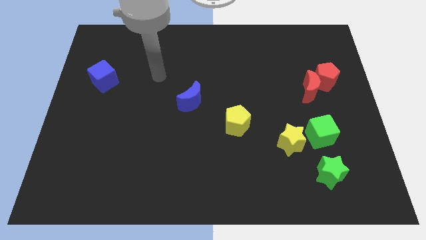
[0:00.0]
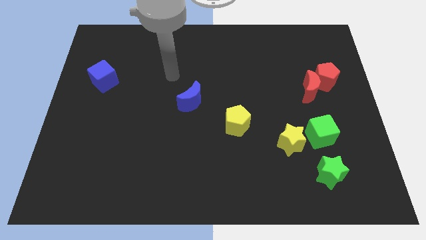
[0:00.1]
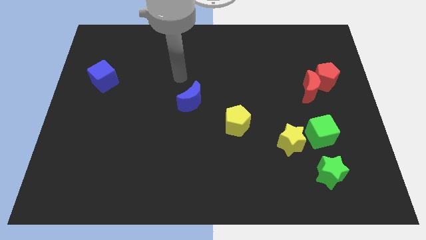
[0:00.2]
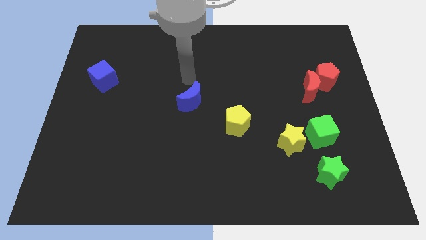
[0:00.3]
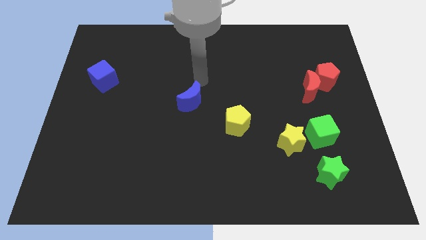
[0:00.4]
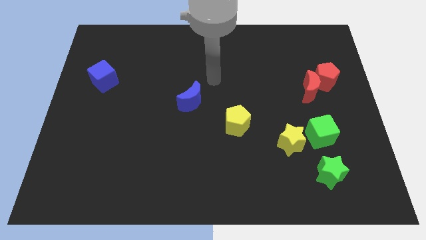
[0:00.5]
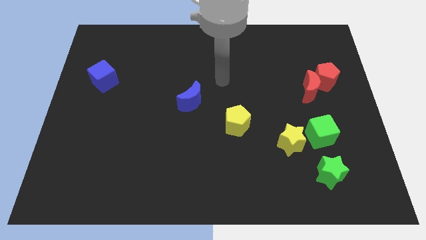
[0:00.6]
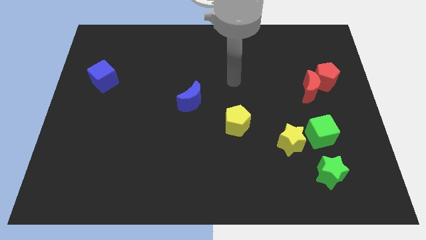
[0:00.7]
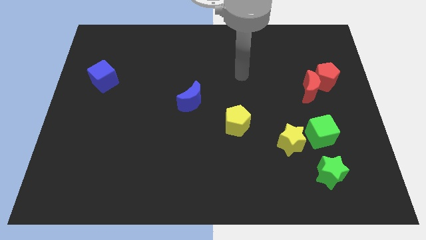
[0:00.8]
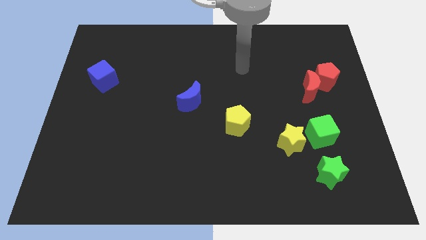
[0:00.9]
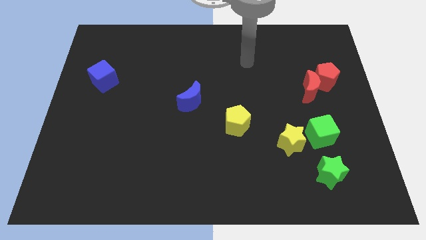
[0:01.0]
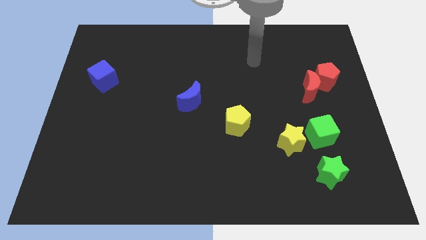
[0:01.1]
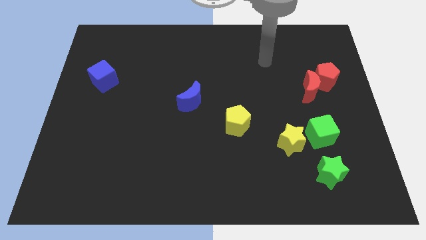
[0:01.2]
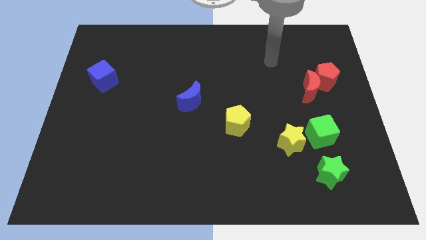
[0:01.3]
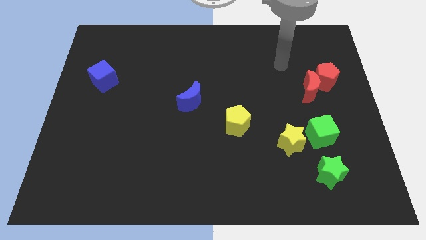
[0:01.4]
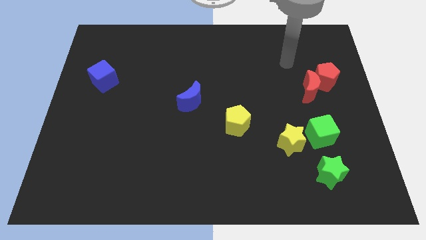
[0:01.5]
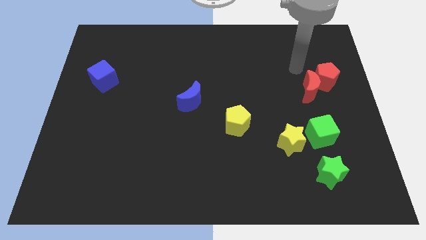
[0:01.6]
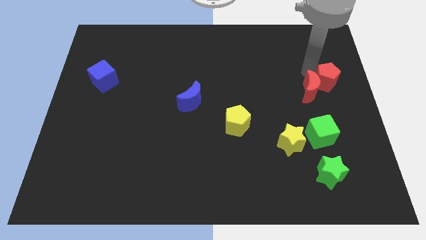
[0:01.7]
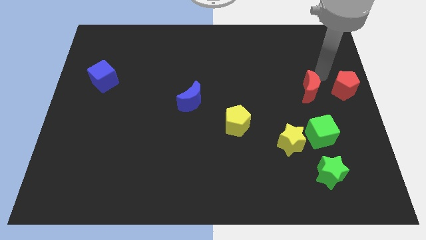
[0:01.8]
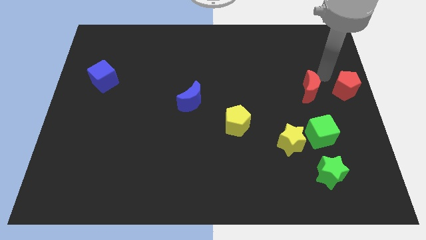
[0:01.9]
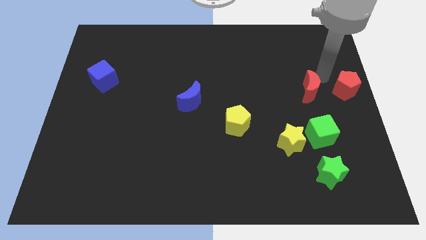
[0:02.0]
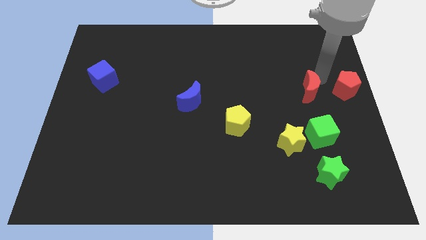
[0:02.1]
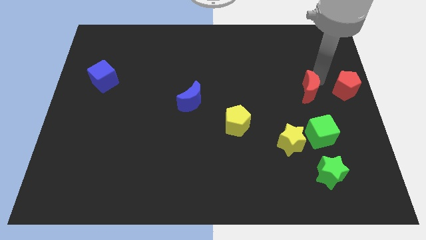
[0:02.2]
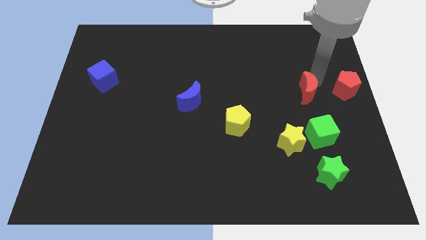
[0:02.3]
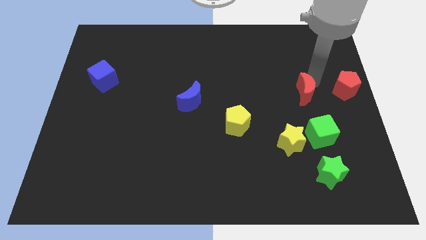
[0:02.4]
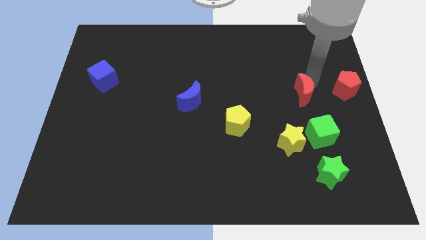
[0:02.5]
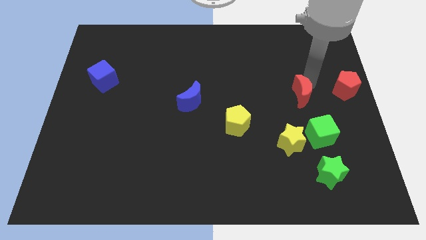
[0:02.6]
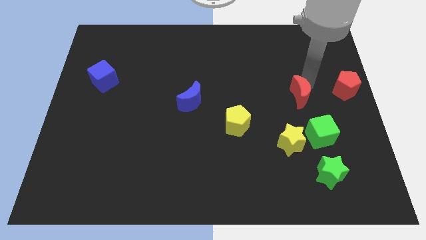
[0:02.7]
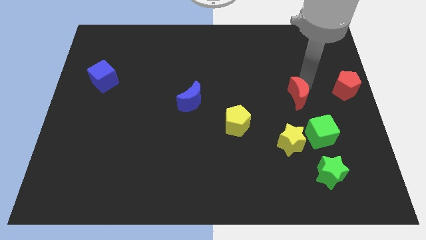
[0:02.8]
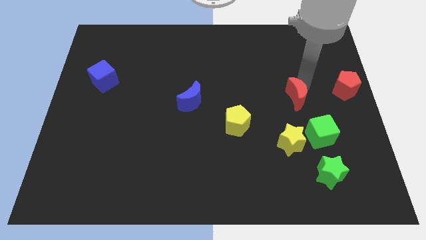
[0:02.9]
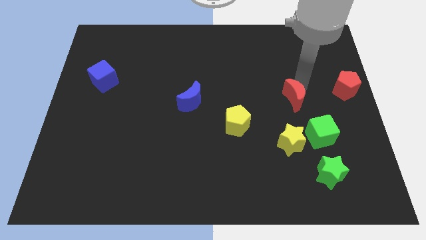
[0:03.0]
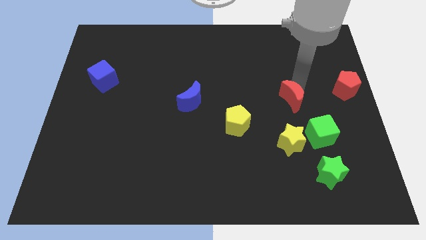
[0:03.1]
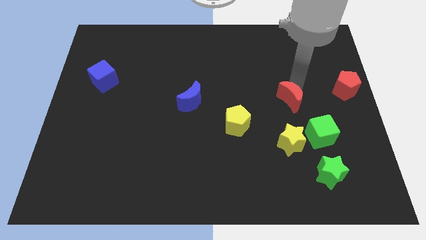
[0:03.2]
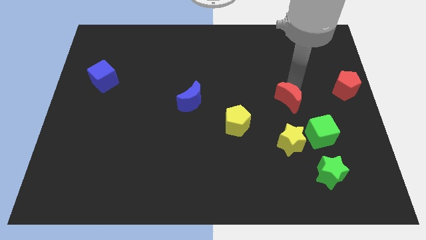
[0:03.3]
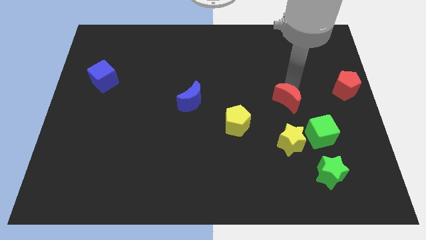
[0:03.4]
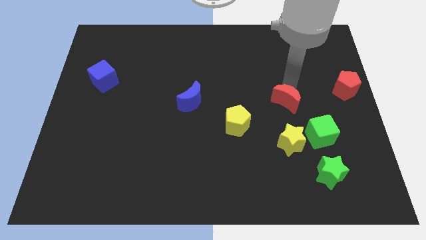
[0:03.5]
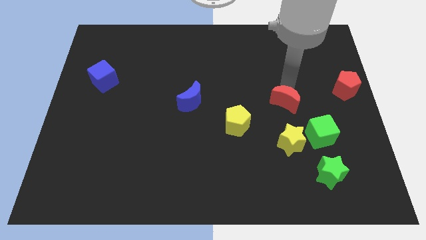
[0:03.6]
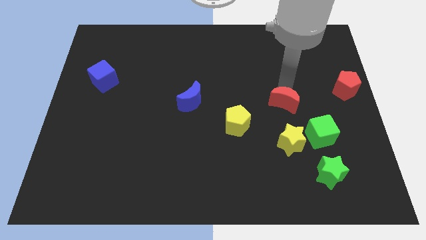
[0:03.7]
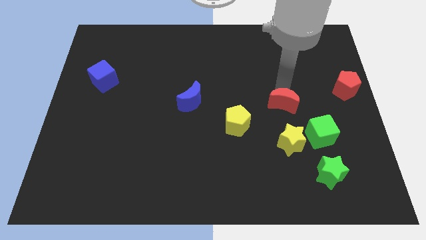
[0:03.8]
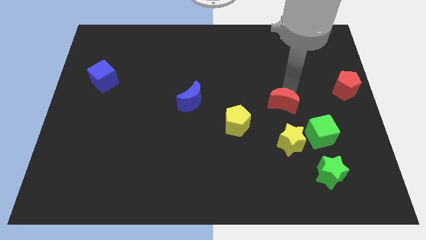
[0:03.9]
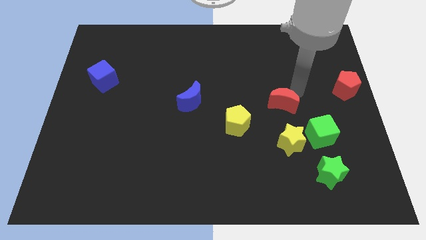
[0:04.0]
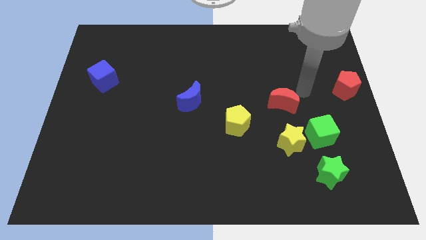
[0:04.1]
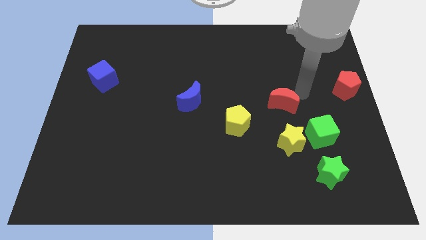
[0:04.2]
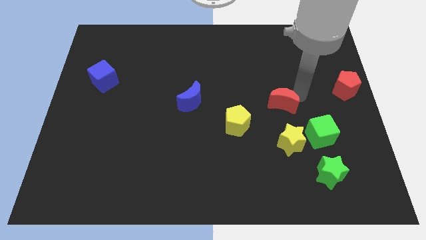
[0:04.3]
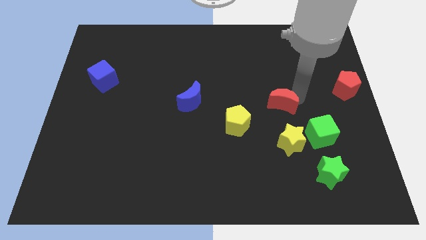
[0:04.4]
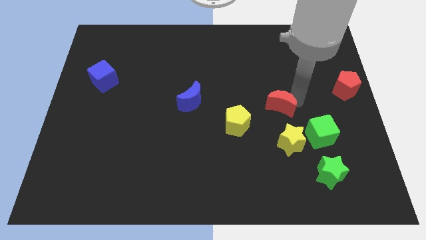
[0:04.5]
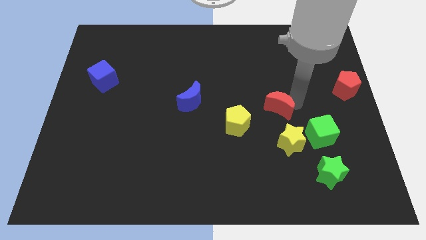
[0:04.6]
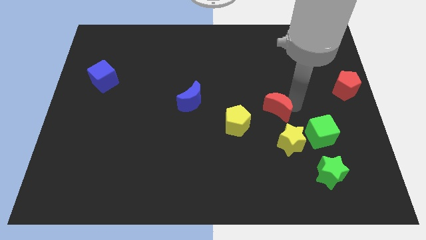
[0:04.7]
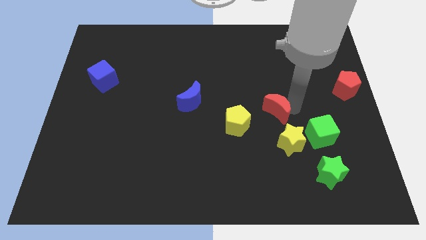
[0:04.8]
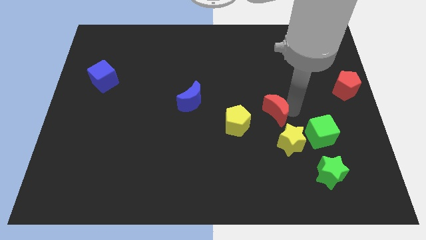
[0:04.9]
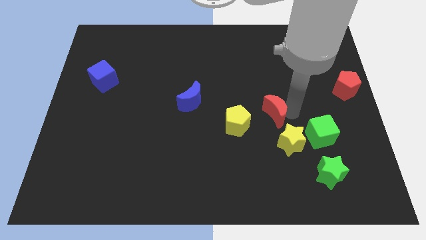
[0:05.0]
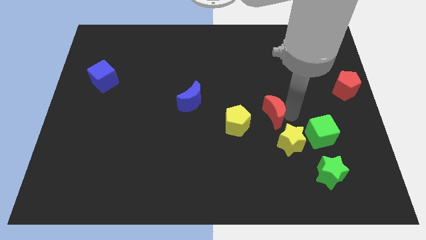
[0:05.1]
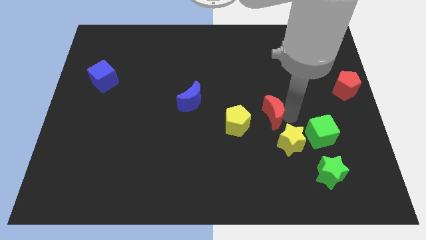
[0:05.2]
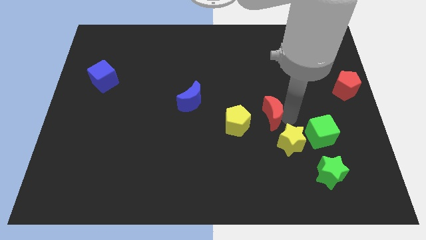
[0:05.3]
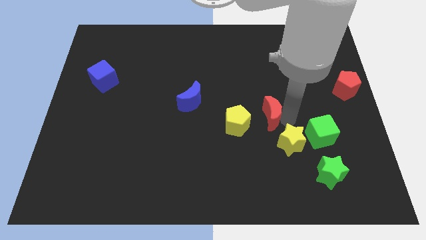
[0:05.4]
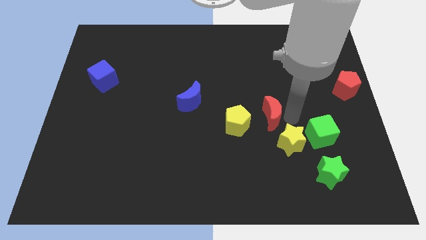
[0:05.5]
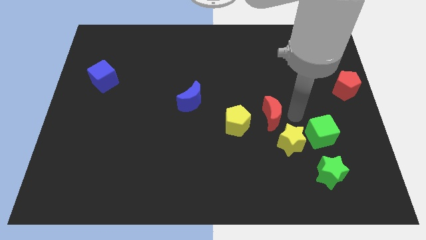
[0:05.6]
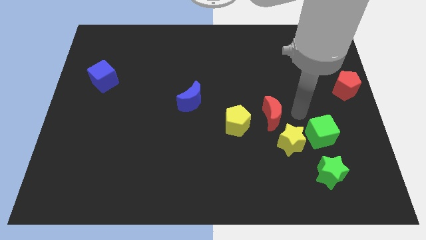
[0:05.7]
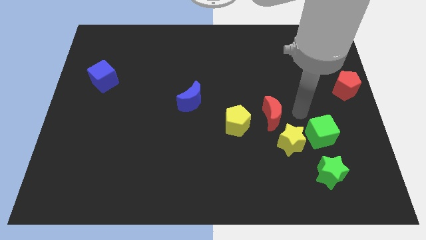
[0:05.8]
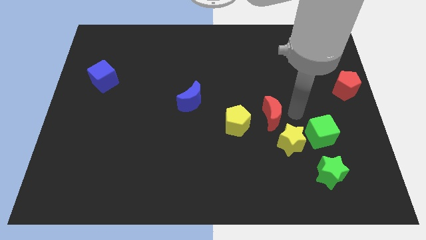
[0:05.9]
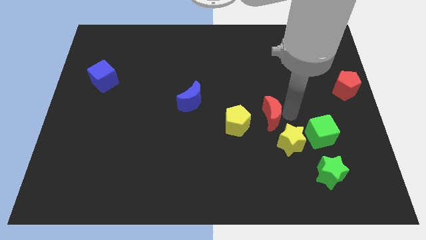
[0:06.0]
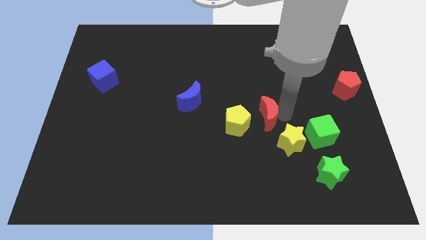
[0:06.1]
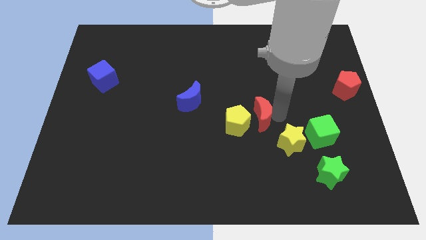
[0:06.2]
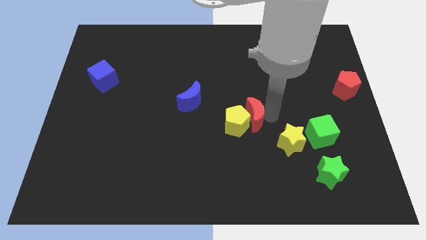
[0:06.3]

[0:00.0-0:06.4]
move the red moon next to the yellow pentagon

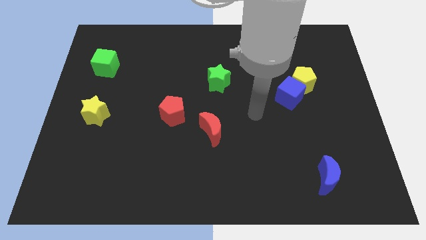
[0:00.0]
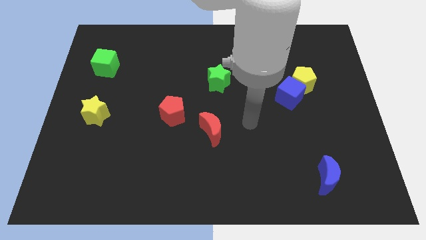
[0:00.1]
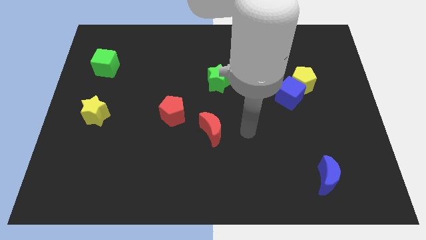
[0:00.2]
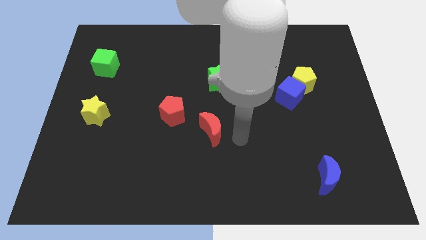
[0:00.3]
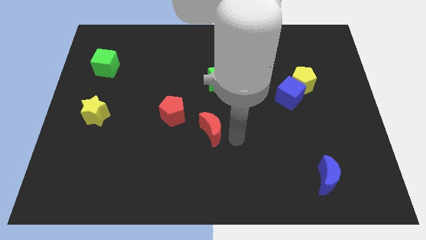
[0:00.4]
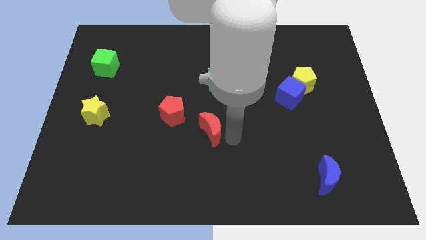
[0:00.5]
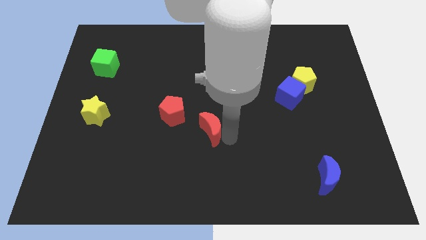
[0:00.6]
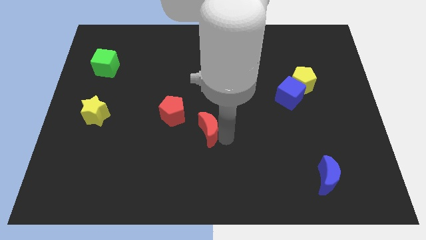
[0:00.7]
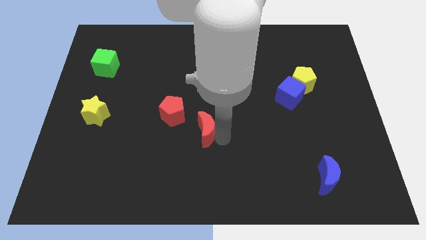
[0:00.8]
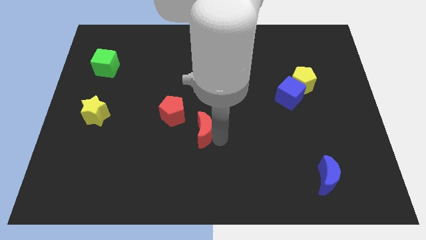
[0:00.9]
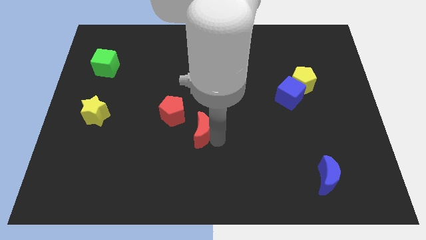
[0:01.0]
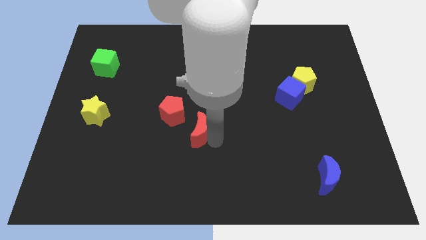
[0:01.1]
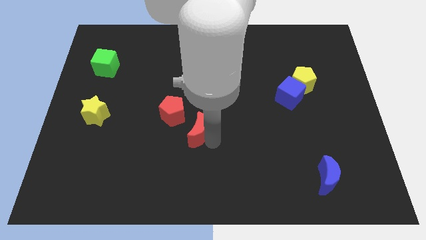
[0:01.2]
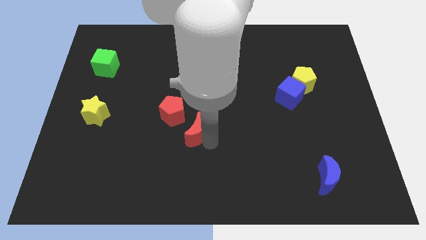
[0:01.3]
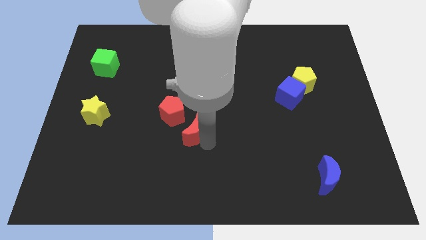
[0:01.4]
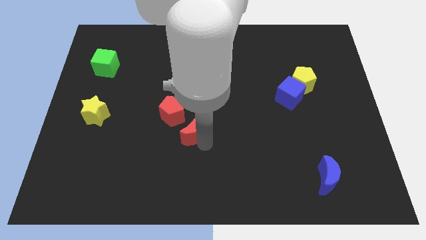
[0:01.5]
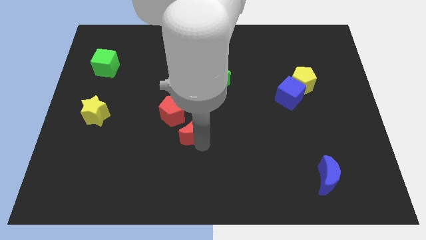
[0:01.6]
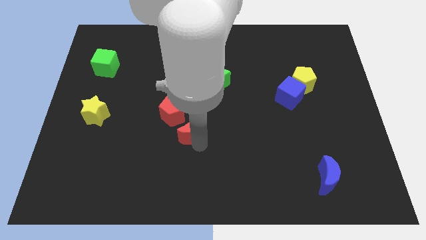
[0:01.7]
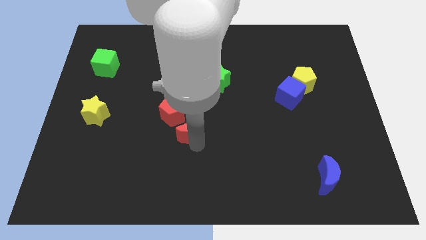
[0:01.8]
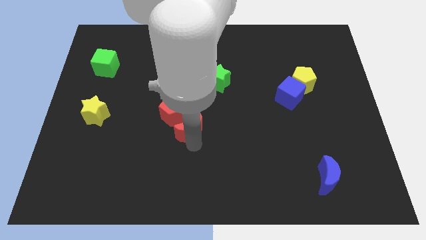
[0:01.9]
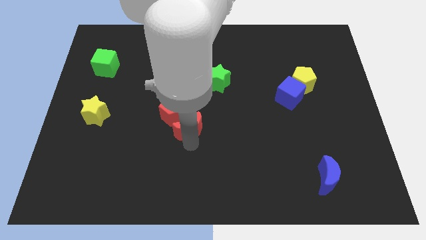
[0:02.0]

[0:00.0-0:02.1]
slide the red moon next to the red pentagon
